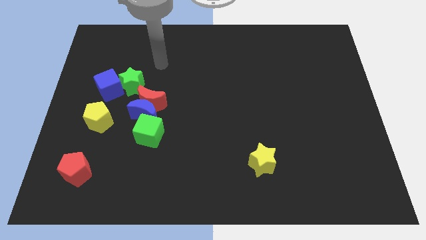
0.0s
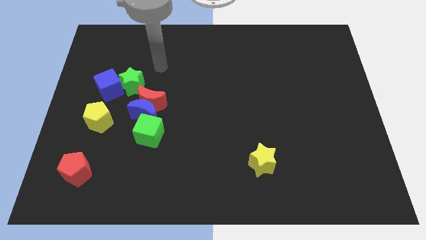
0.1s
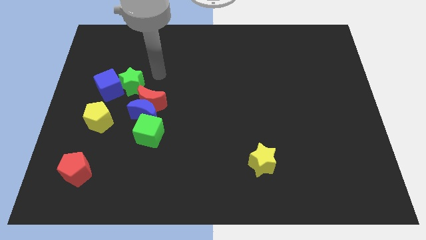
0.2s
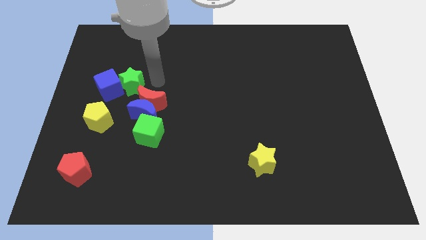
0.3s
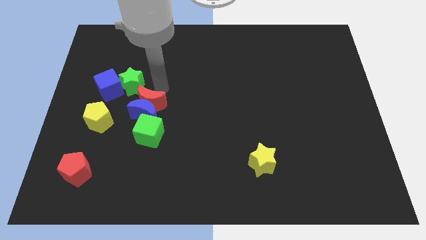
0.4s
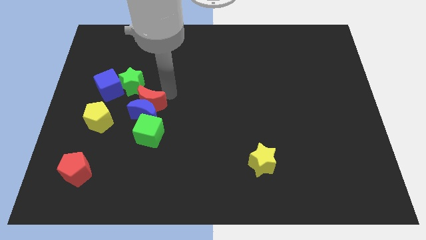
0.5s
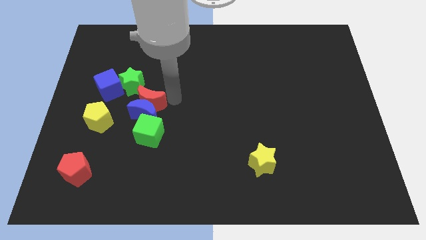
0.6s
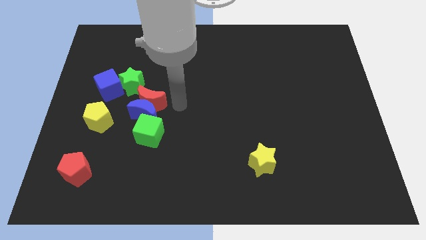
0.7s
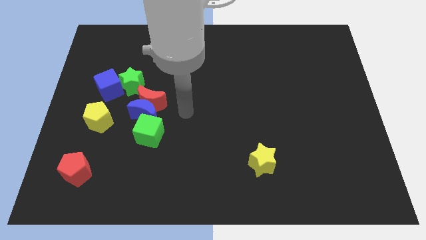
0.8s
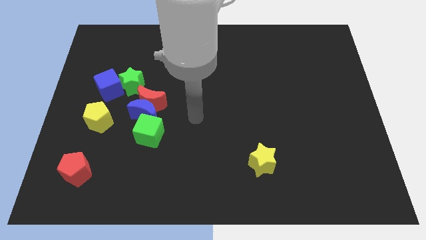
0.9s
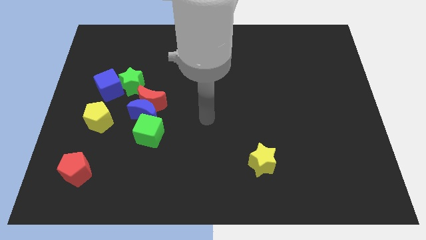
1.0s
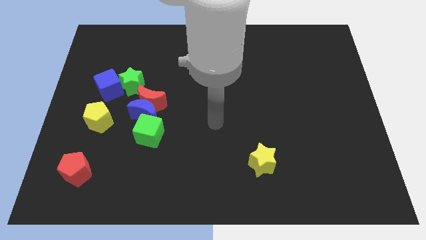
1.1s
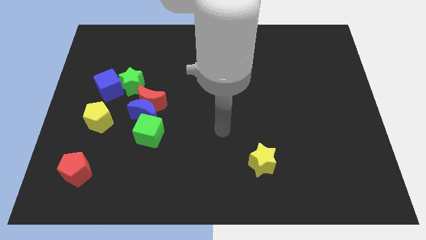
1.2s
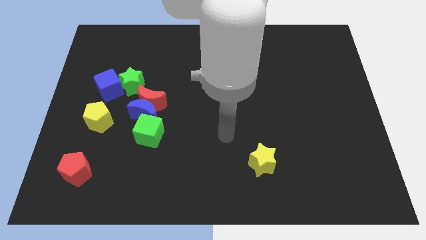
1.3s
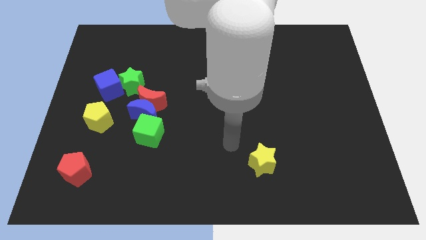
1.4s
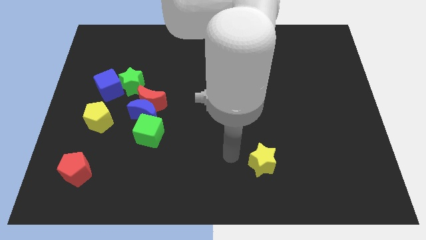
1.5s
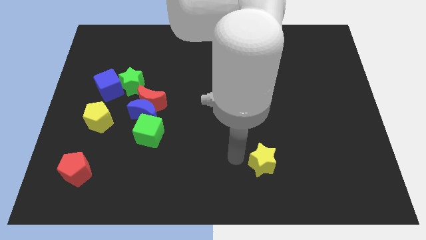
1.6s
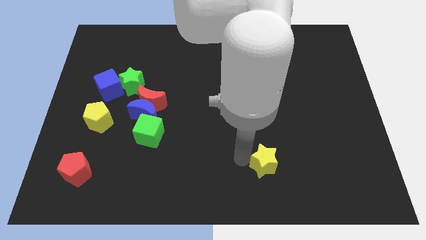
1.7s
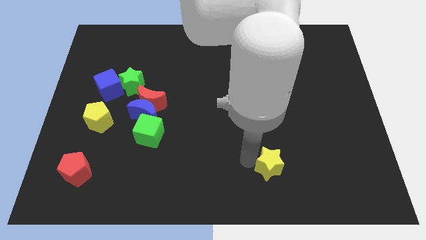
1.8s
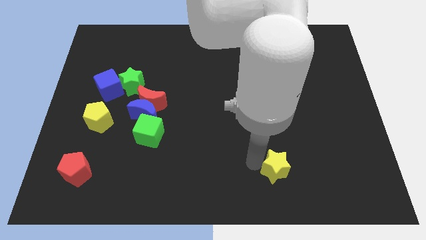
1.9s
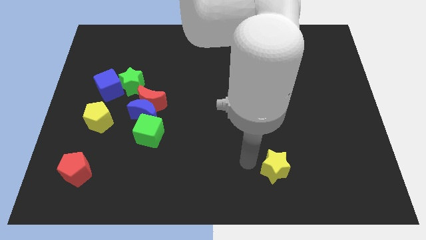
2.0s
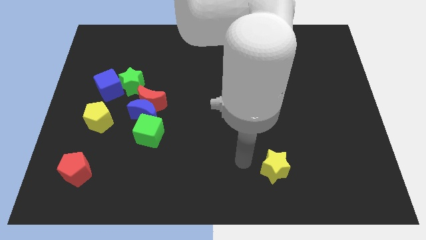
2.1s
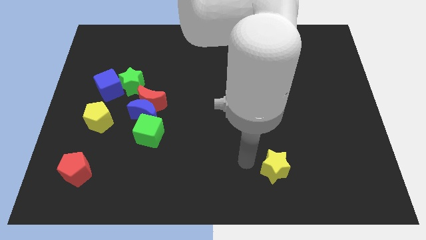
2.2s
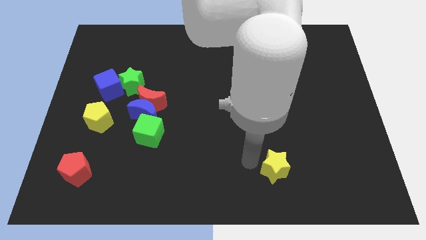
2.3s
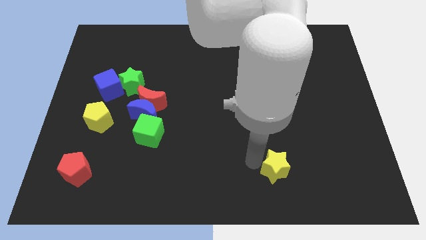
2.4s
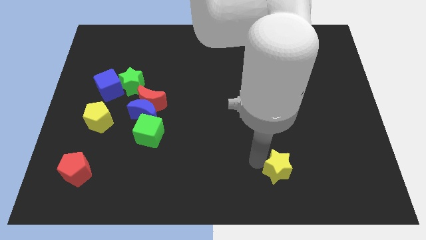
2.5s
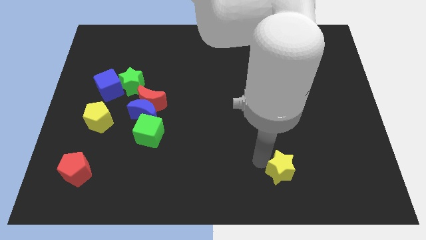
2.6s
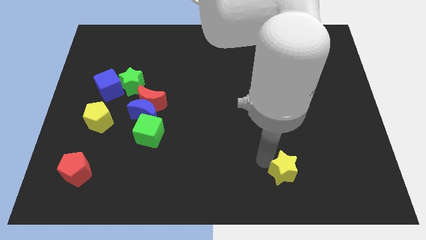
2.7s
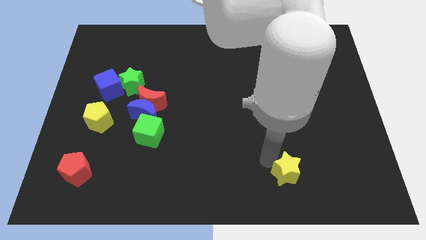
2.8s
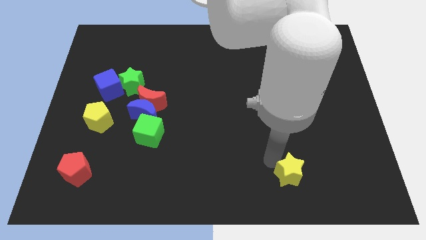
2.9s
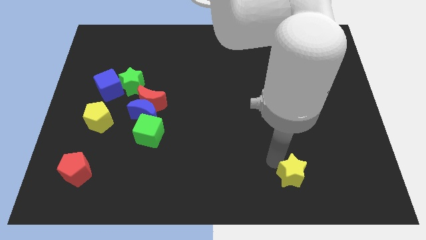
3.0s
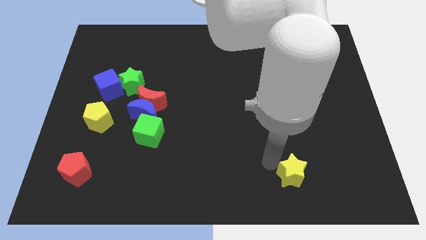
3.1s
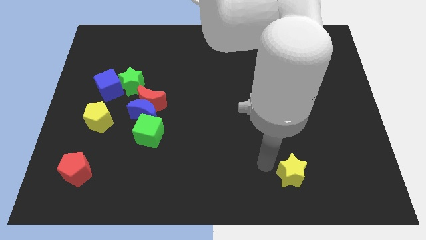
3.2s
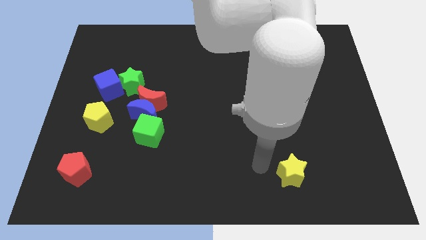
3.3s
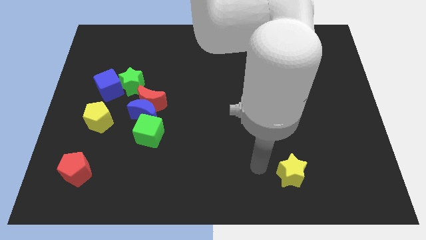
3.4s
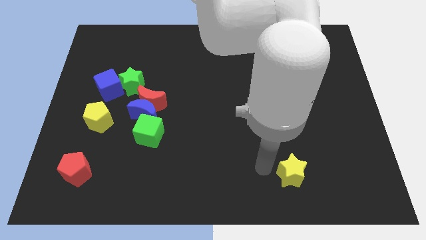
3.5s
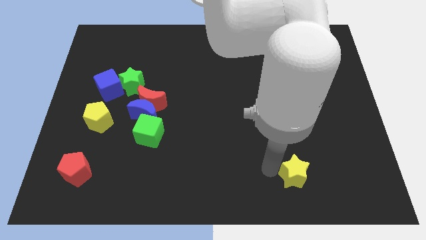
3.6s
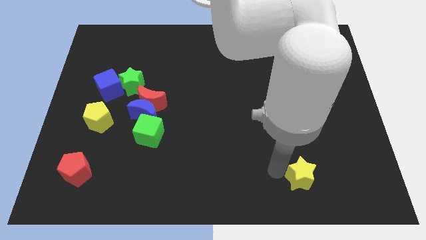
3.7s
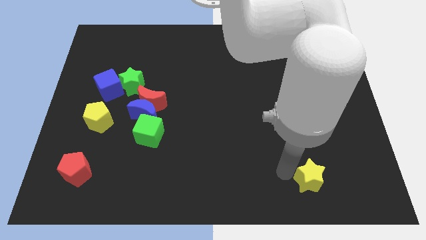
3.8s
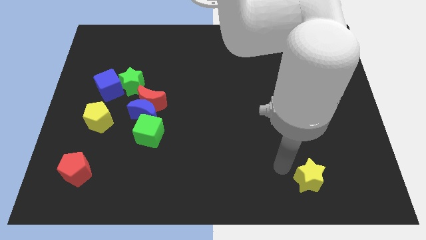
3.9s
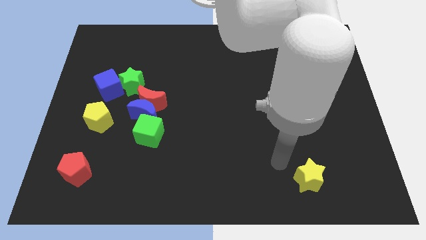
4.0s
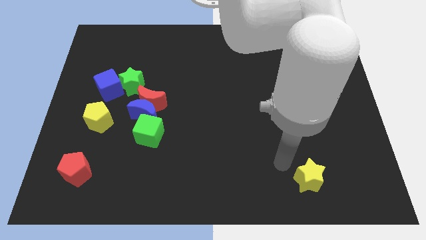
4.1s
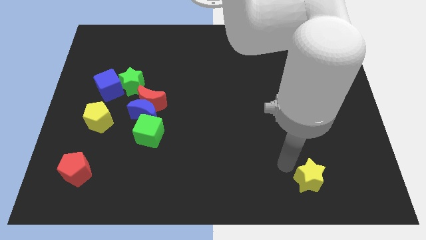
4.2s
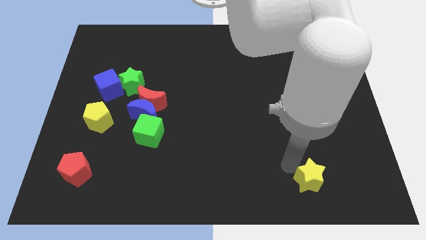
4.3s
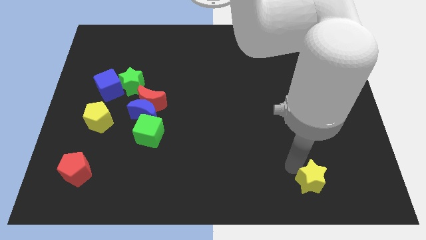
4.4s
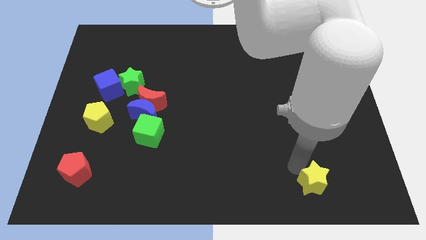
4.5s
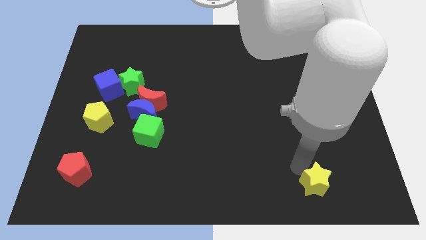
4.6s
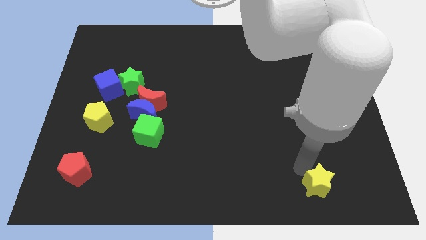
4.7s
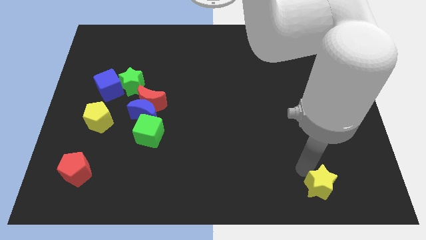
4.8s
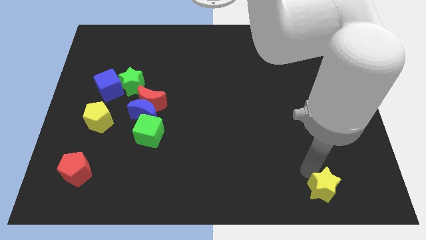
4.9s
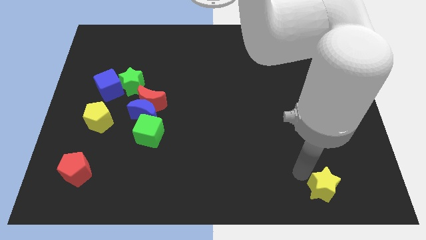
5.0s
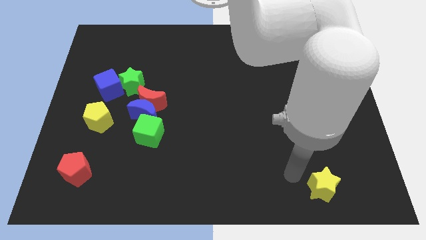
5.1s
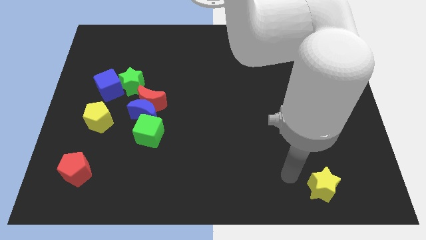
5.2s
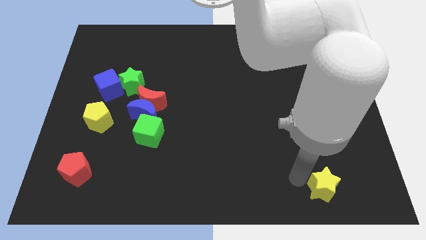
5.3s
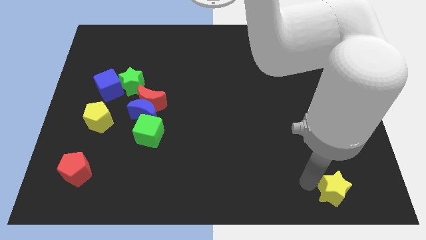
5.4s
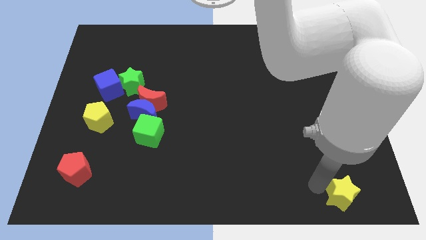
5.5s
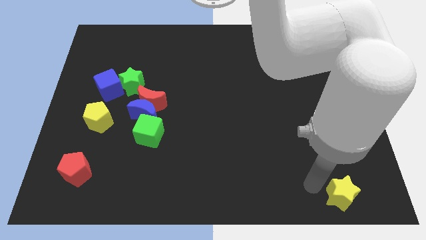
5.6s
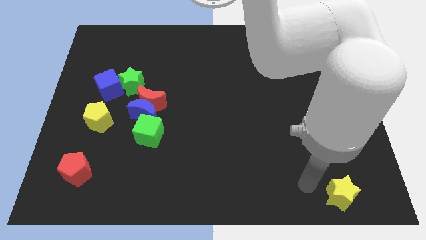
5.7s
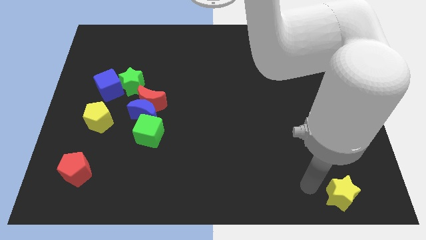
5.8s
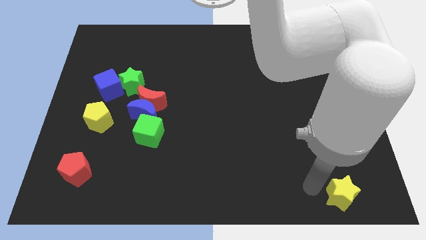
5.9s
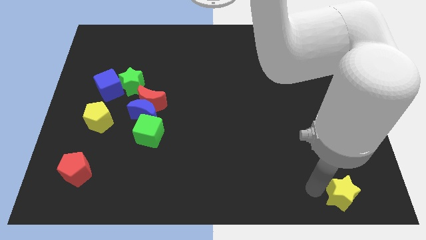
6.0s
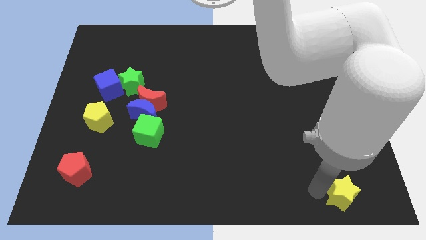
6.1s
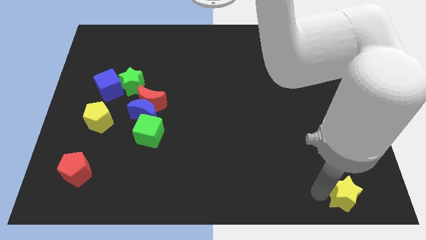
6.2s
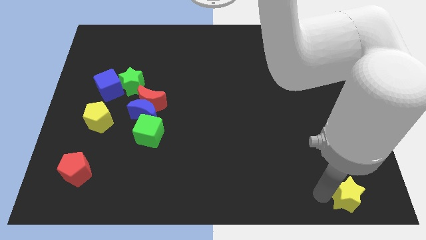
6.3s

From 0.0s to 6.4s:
push the yellow star to the bottom right corner
